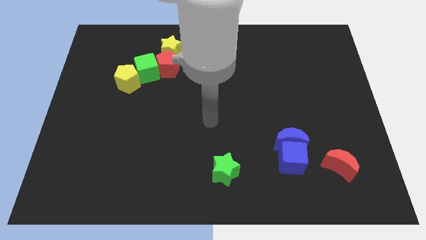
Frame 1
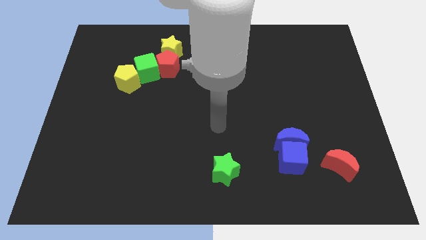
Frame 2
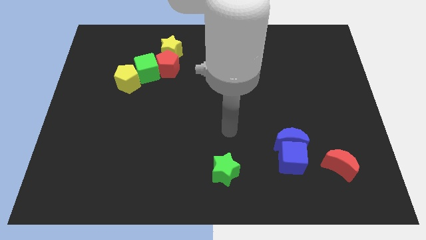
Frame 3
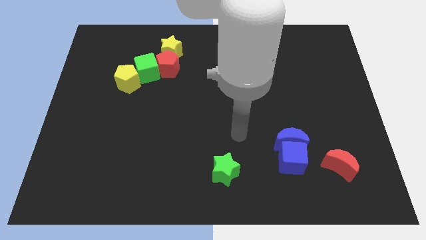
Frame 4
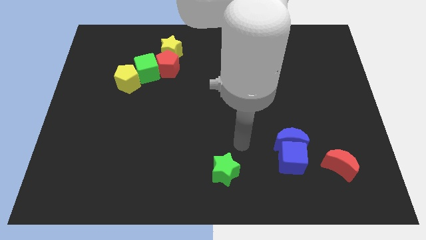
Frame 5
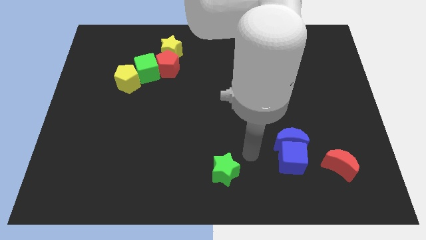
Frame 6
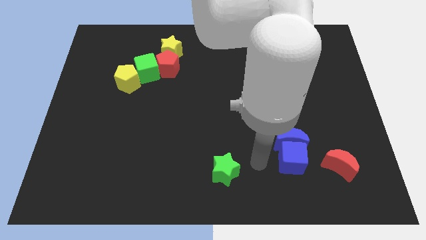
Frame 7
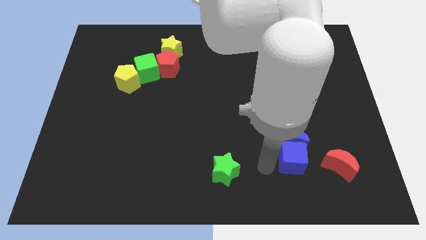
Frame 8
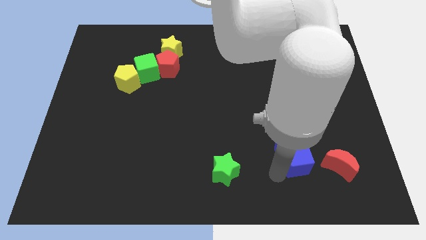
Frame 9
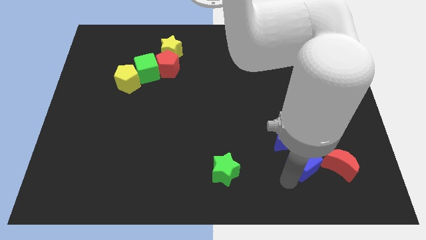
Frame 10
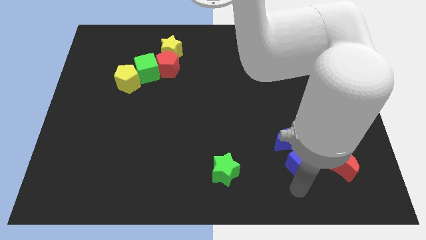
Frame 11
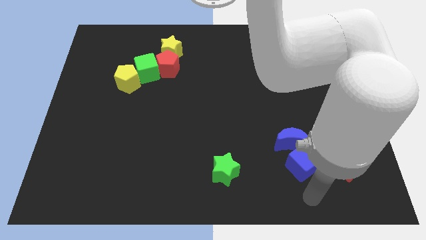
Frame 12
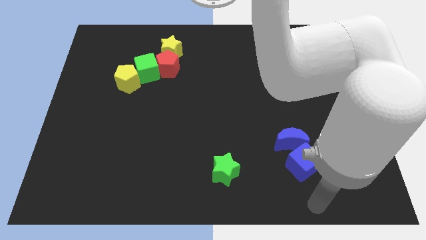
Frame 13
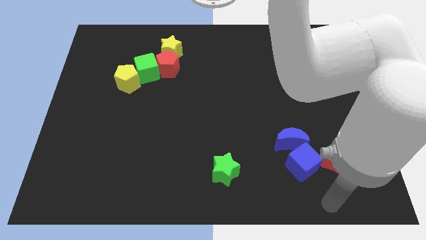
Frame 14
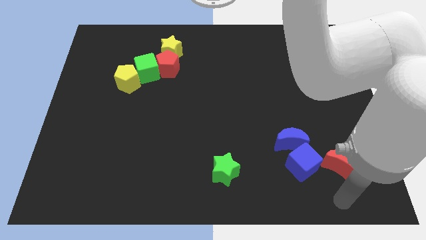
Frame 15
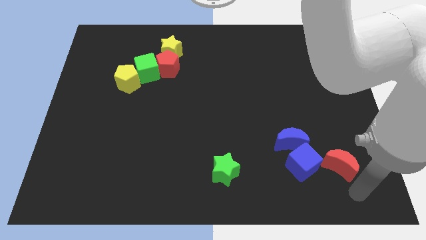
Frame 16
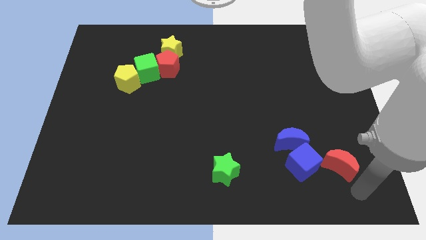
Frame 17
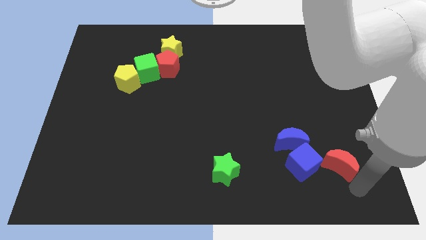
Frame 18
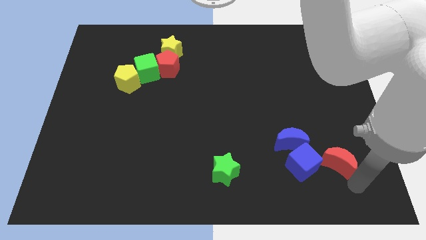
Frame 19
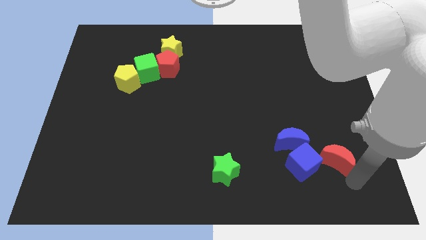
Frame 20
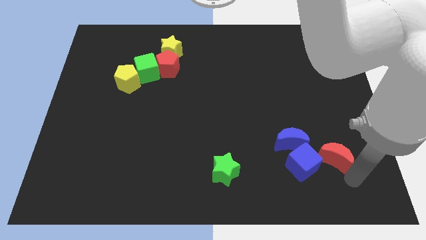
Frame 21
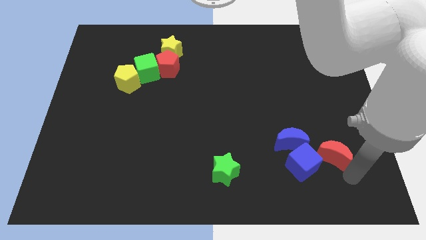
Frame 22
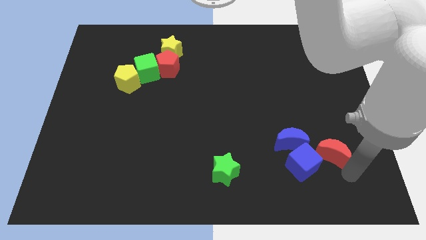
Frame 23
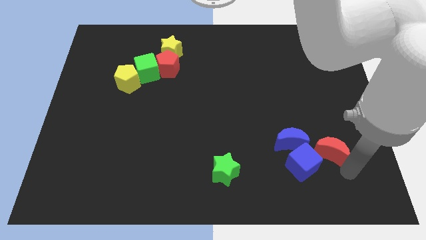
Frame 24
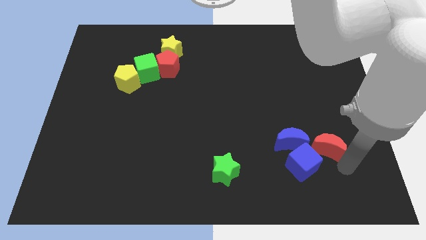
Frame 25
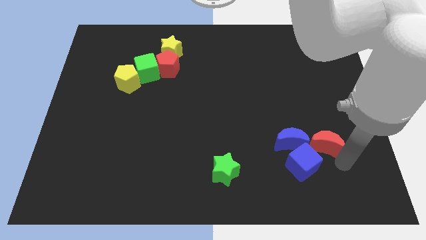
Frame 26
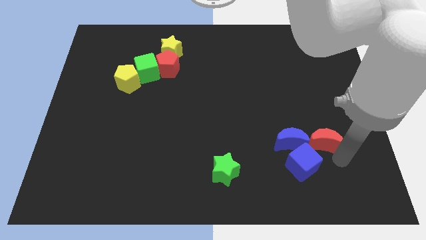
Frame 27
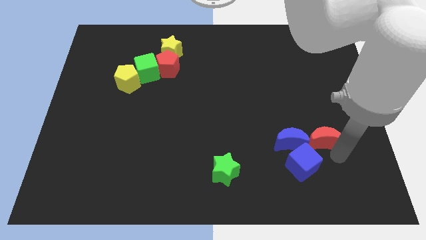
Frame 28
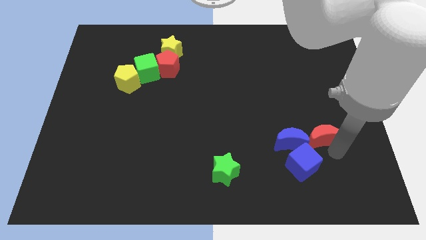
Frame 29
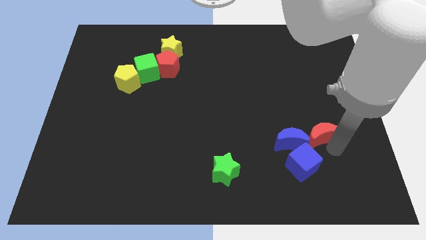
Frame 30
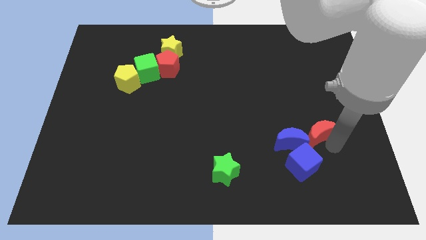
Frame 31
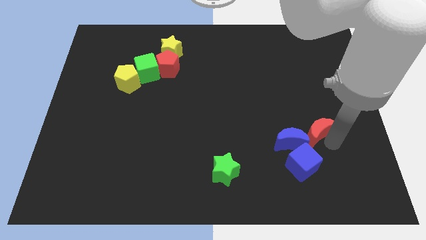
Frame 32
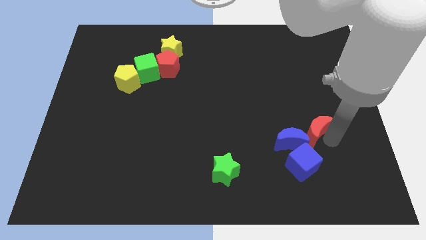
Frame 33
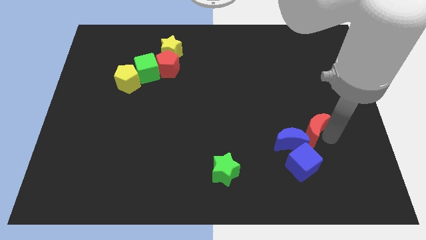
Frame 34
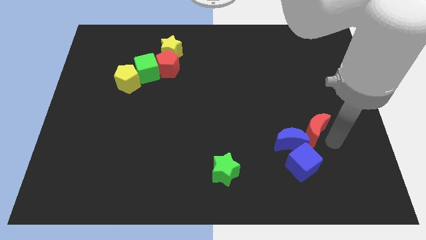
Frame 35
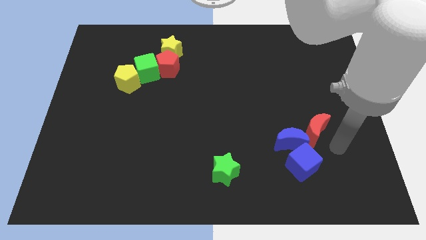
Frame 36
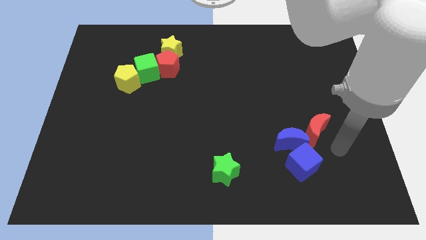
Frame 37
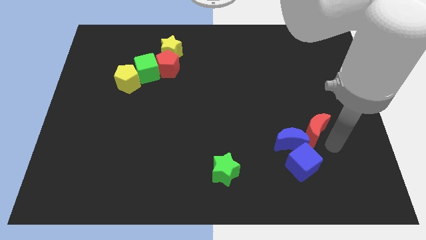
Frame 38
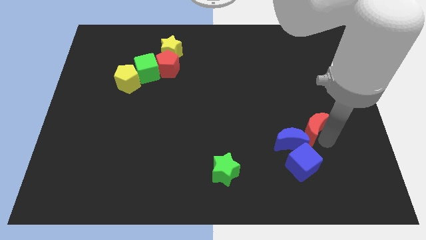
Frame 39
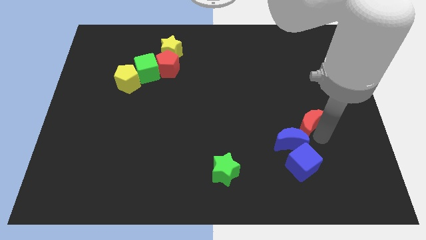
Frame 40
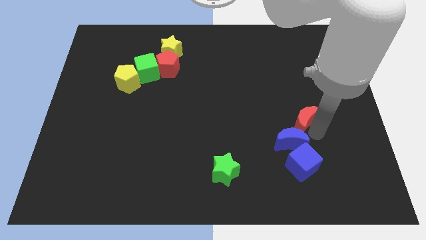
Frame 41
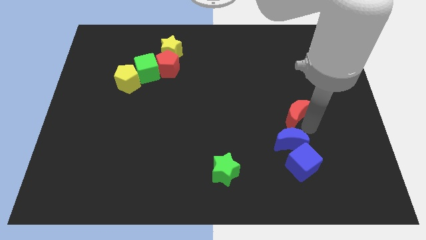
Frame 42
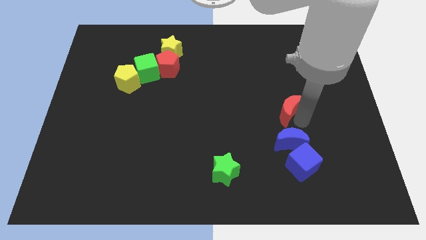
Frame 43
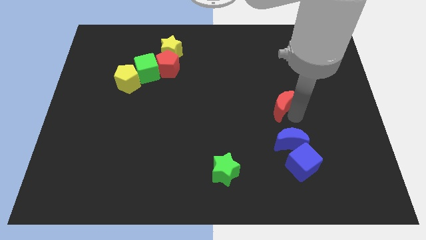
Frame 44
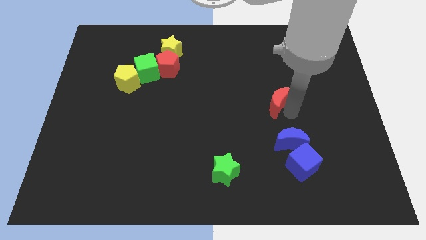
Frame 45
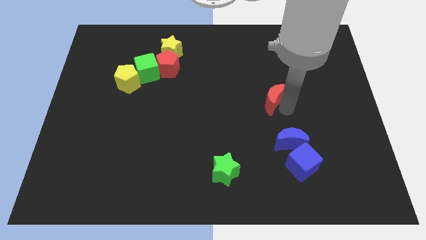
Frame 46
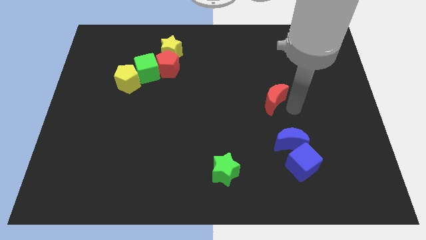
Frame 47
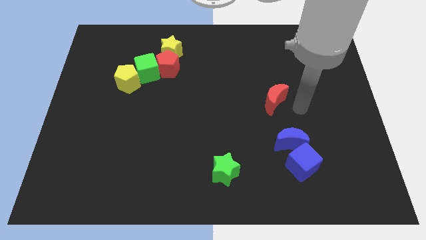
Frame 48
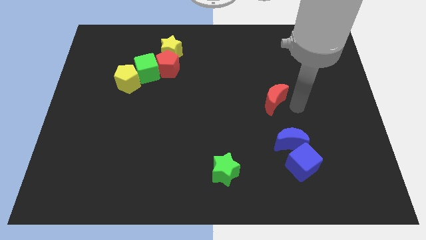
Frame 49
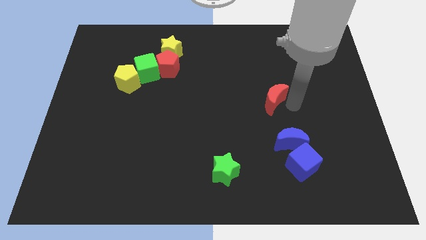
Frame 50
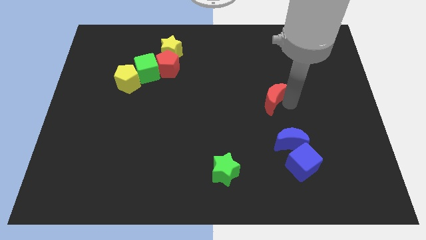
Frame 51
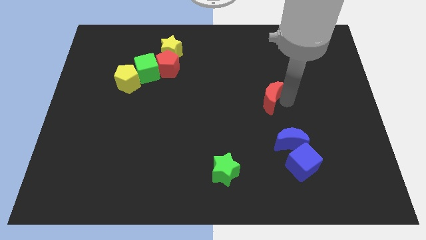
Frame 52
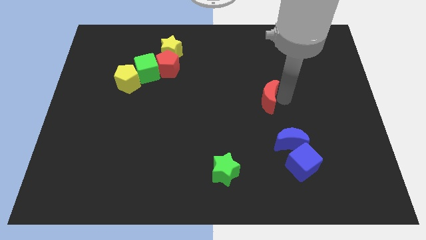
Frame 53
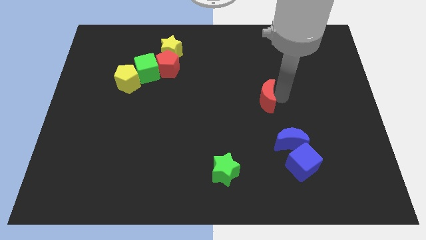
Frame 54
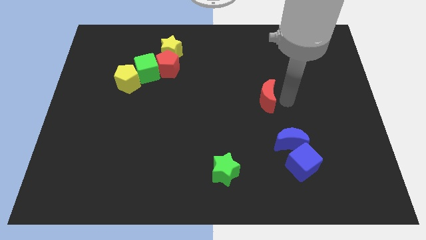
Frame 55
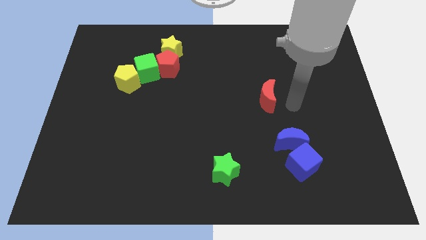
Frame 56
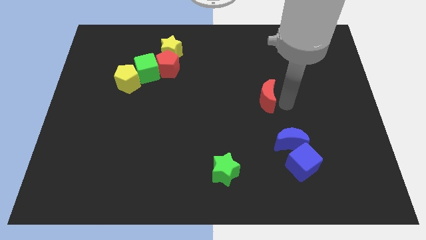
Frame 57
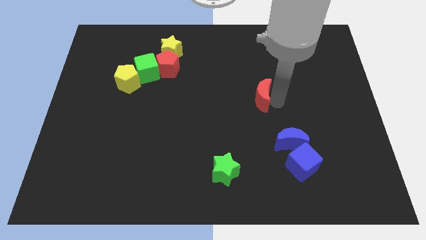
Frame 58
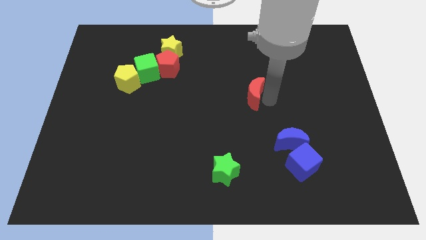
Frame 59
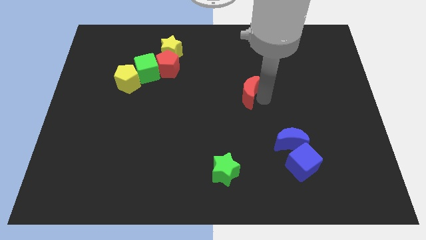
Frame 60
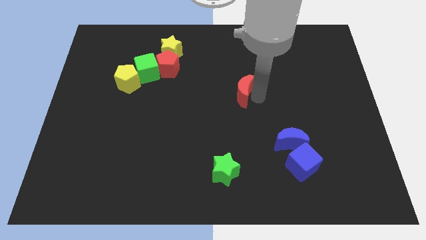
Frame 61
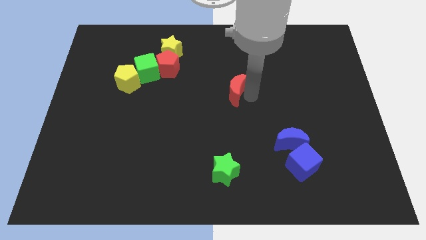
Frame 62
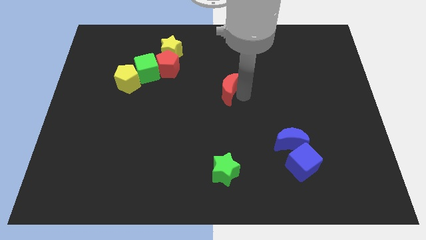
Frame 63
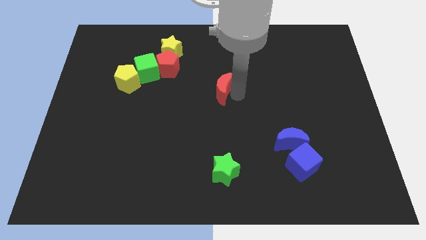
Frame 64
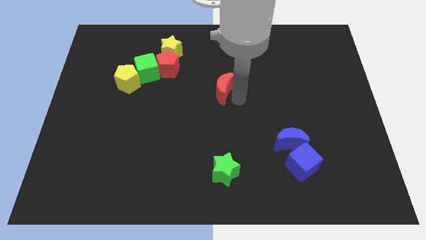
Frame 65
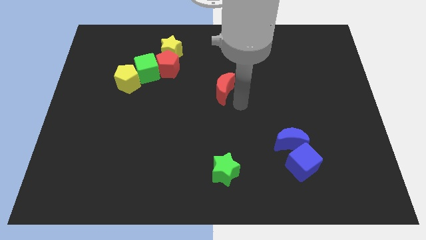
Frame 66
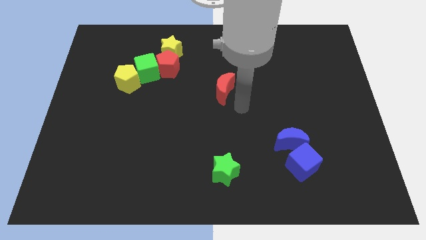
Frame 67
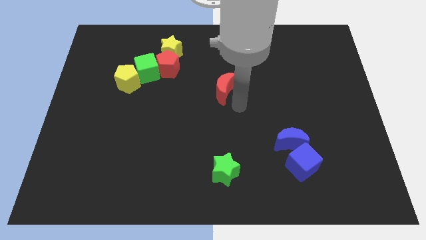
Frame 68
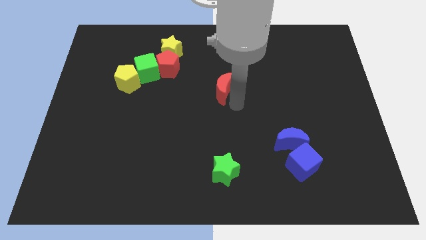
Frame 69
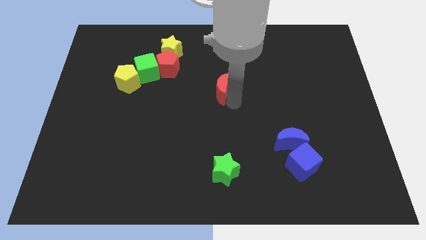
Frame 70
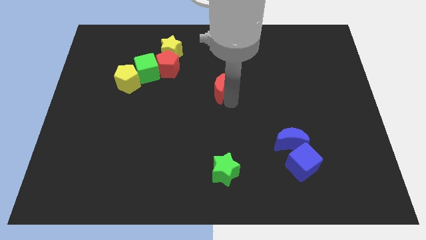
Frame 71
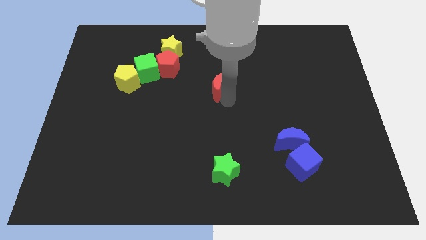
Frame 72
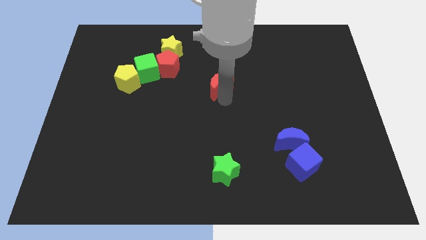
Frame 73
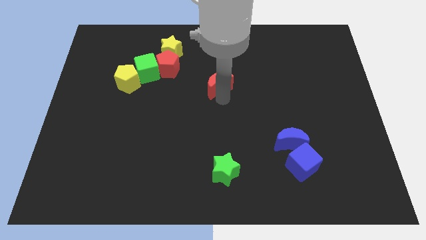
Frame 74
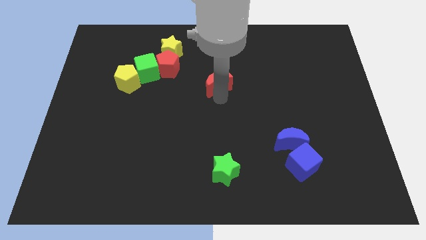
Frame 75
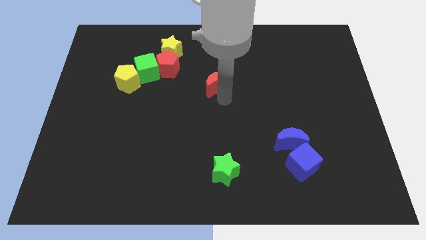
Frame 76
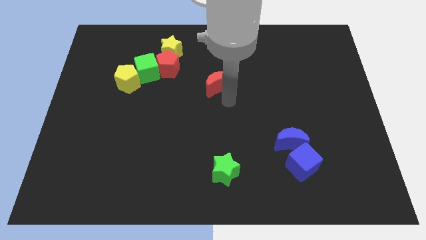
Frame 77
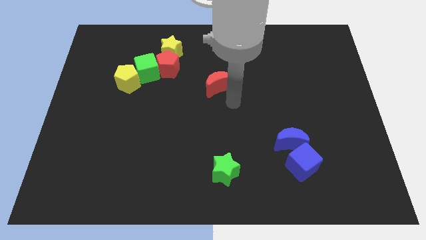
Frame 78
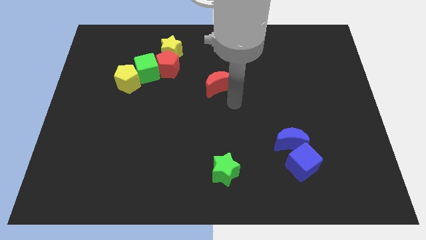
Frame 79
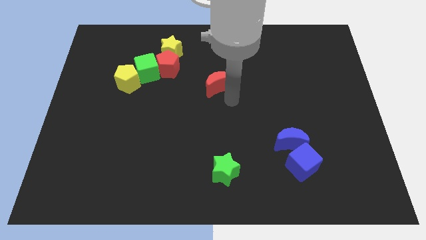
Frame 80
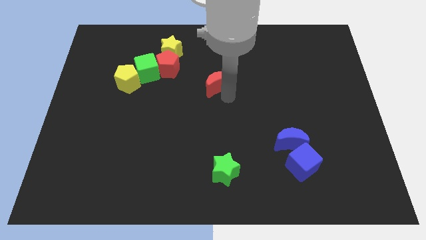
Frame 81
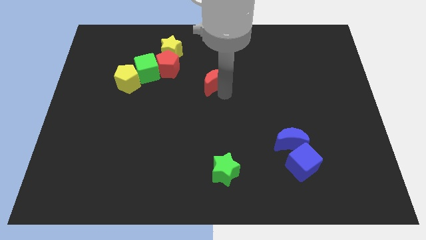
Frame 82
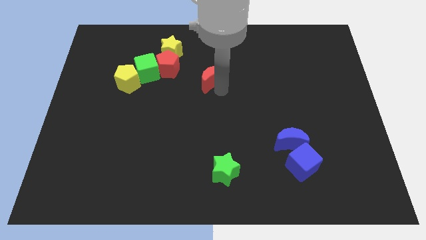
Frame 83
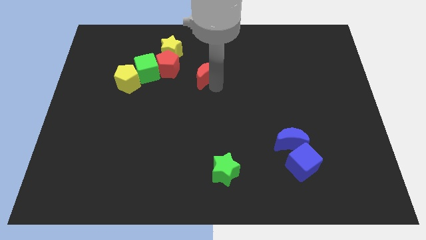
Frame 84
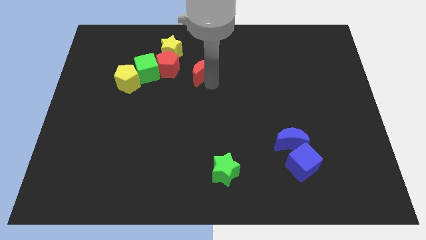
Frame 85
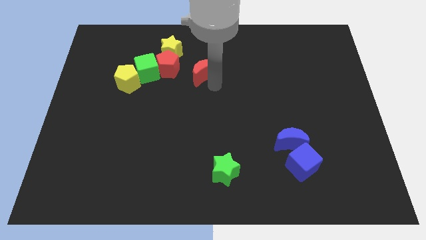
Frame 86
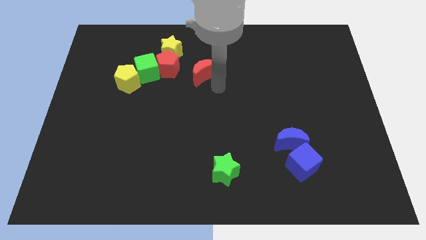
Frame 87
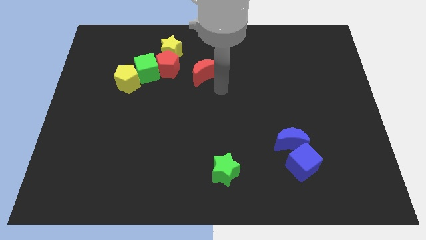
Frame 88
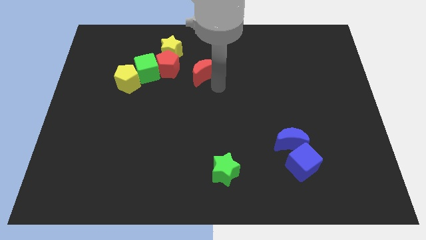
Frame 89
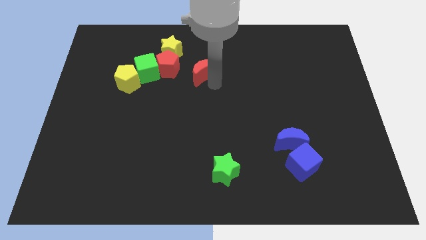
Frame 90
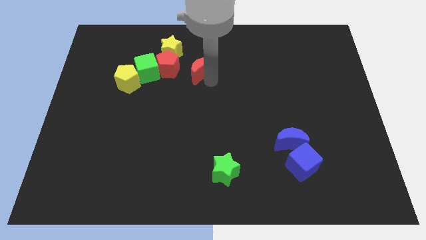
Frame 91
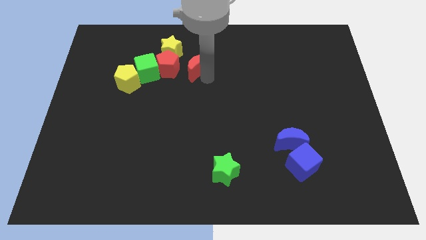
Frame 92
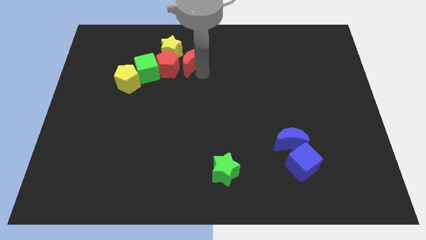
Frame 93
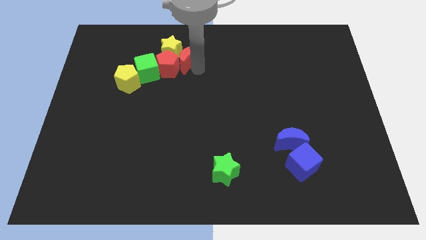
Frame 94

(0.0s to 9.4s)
move the red moon towards the yellow star
